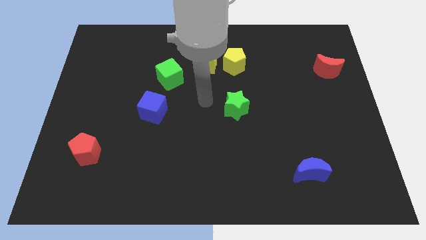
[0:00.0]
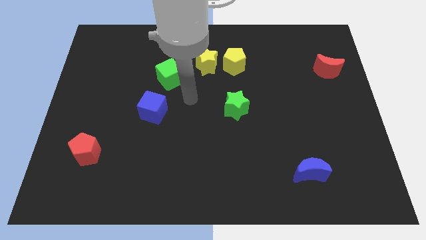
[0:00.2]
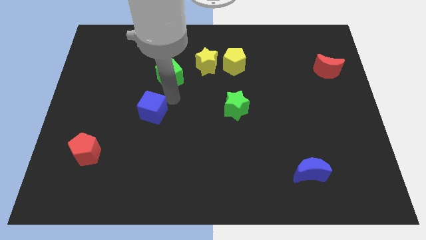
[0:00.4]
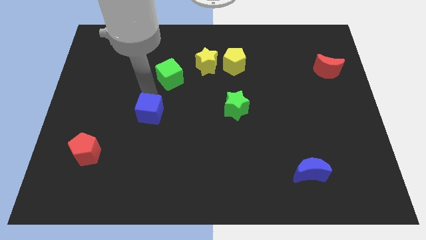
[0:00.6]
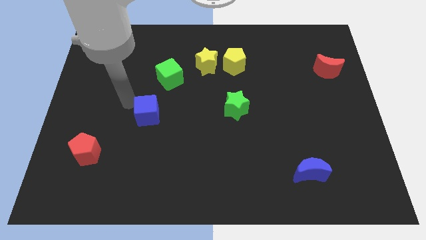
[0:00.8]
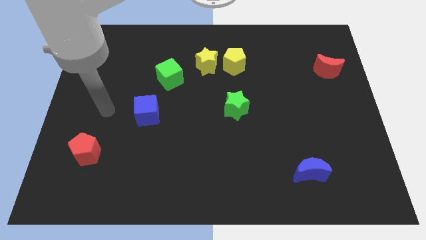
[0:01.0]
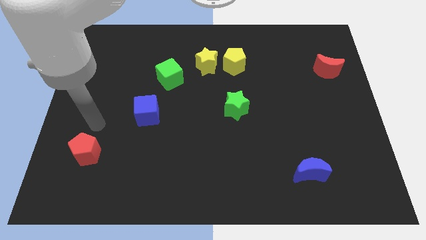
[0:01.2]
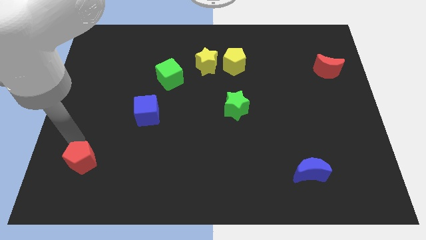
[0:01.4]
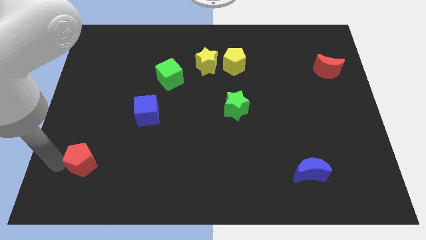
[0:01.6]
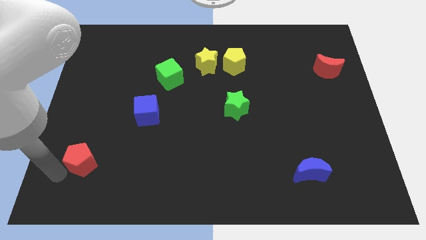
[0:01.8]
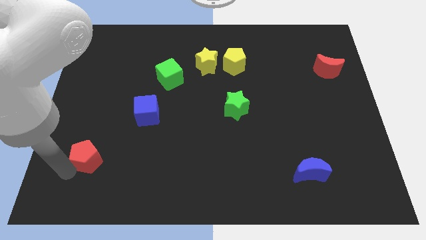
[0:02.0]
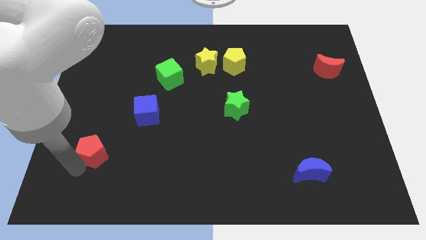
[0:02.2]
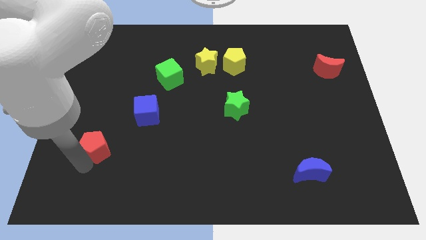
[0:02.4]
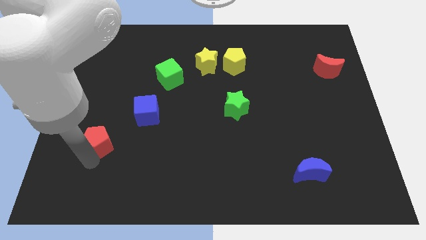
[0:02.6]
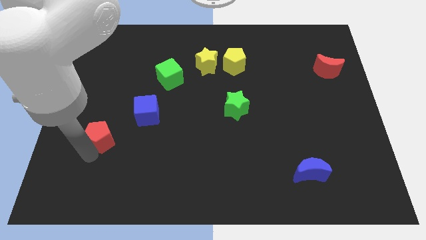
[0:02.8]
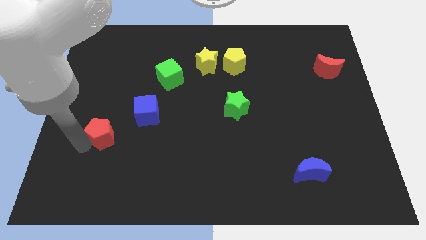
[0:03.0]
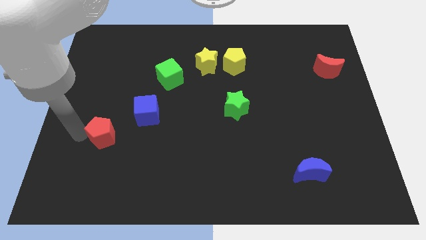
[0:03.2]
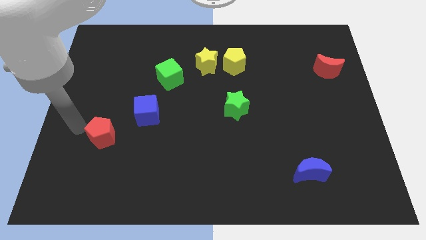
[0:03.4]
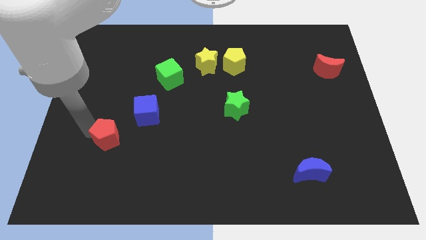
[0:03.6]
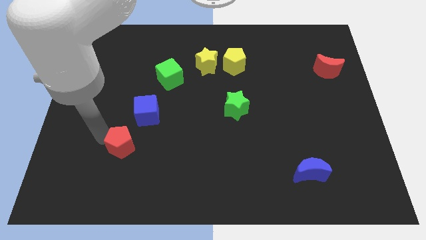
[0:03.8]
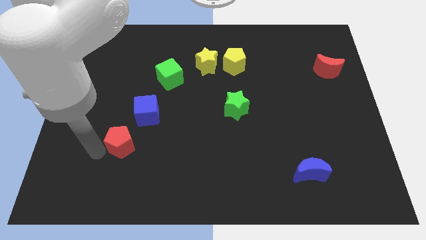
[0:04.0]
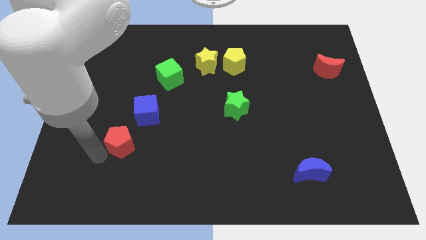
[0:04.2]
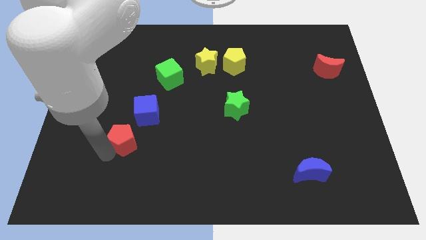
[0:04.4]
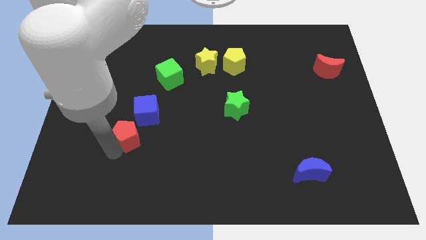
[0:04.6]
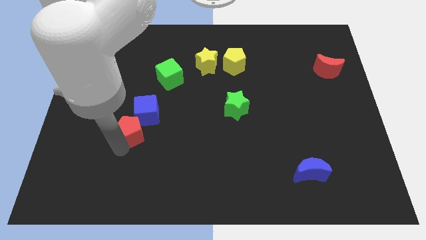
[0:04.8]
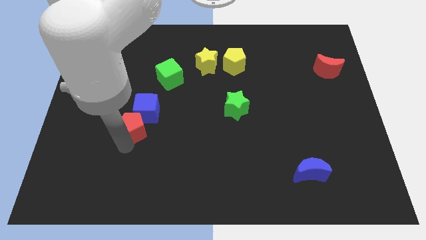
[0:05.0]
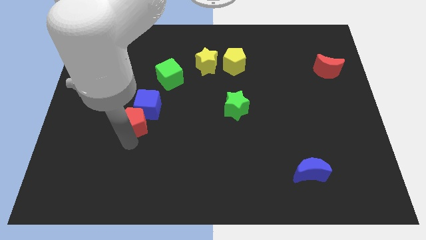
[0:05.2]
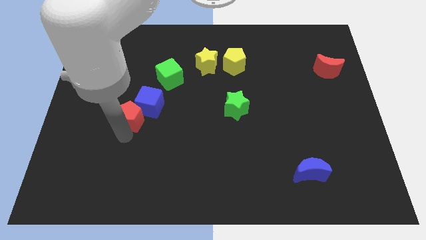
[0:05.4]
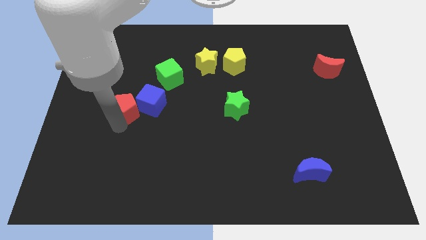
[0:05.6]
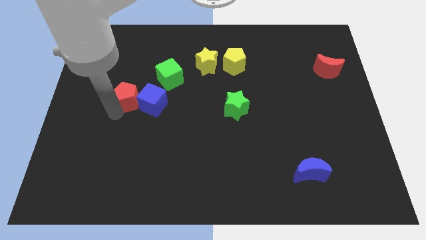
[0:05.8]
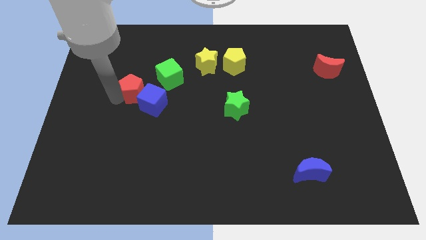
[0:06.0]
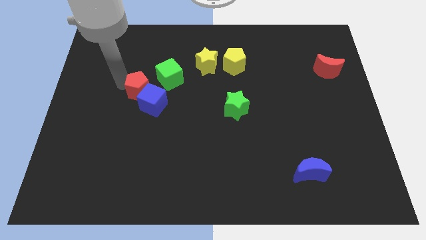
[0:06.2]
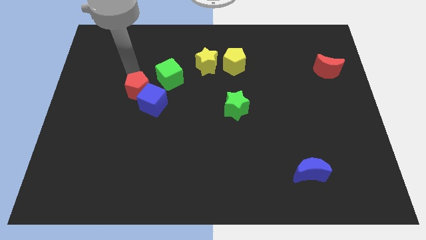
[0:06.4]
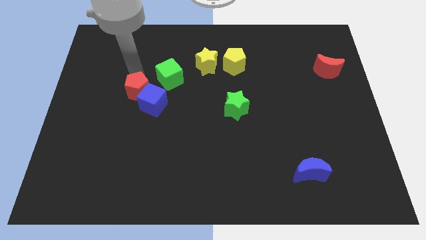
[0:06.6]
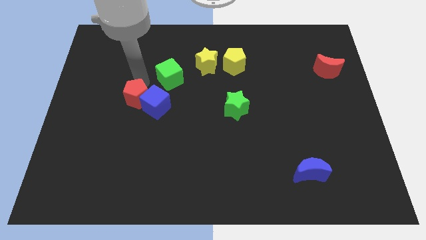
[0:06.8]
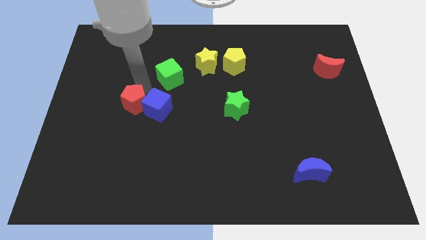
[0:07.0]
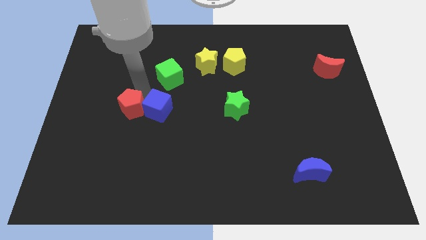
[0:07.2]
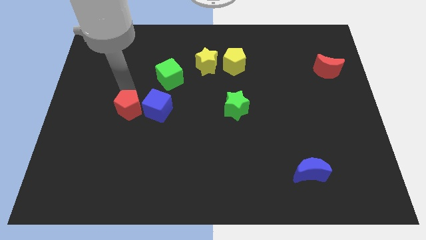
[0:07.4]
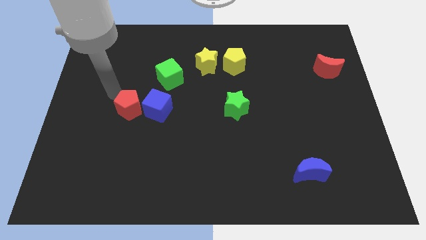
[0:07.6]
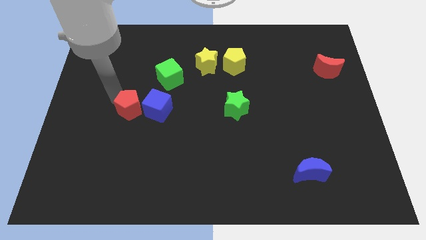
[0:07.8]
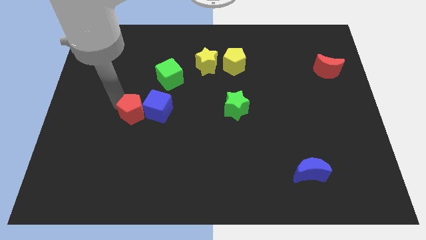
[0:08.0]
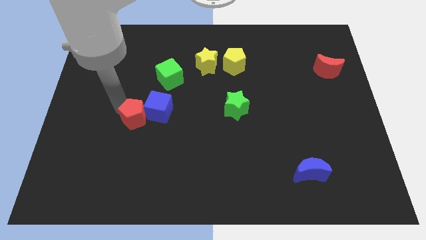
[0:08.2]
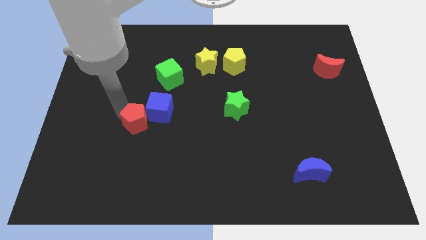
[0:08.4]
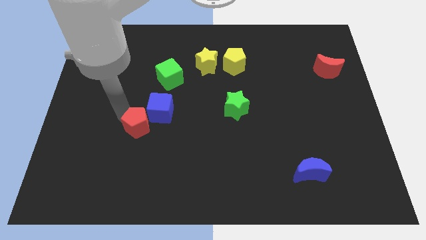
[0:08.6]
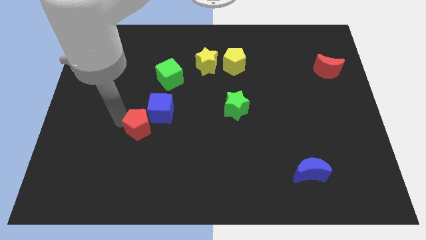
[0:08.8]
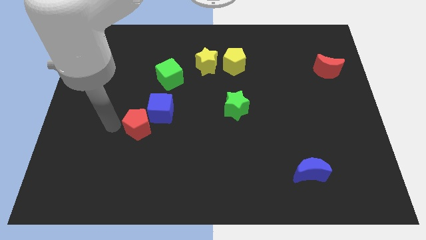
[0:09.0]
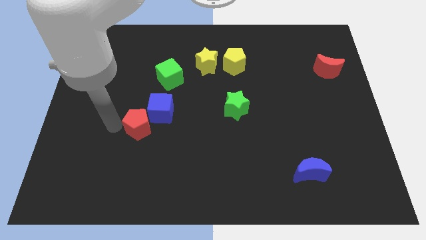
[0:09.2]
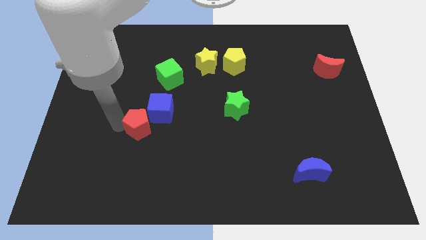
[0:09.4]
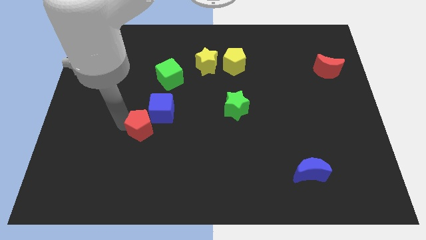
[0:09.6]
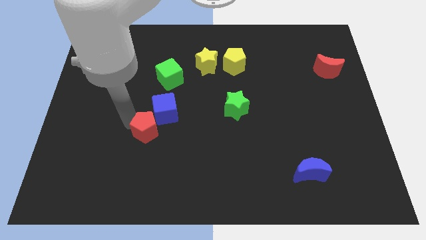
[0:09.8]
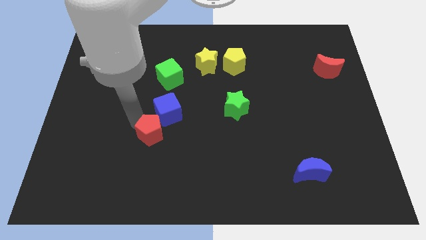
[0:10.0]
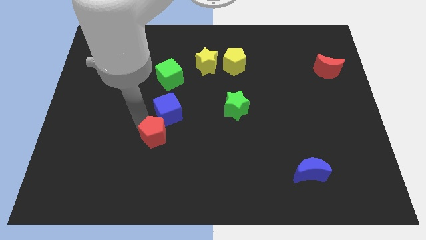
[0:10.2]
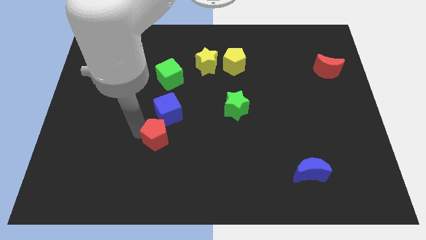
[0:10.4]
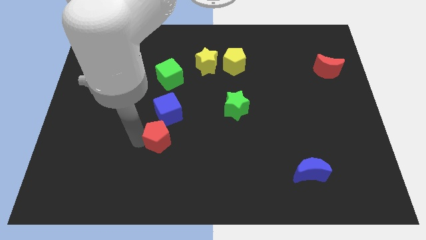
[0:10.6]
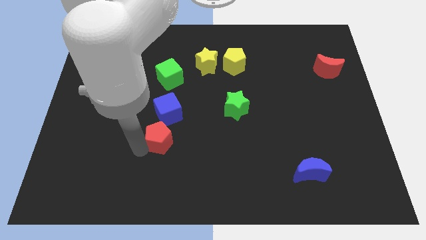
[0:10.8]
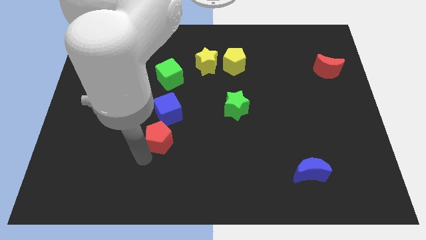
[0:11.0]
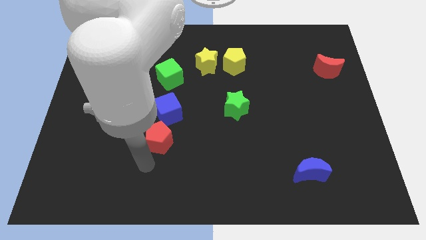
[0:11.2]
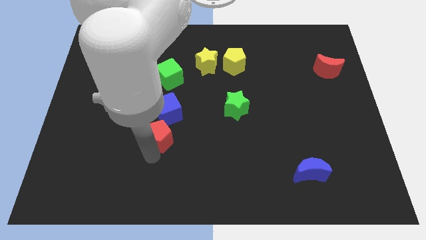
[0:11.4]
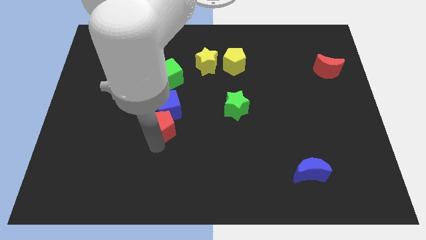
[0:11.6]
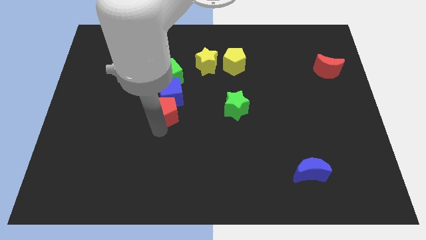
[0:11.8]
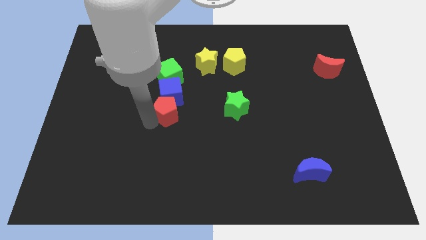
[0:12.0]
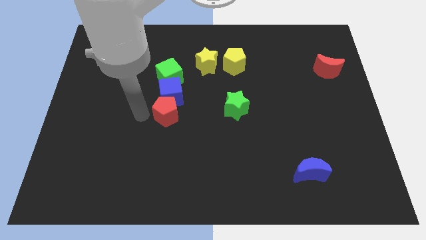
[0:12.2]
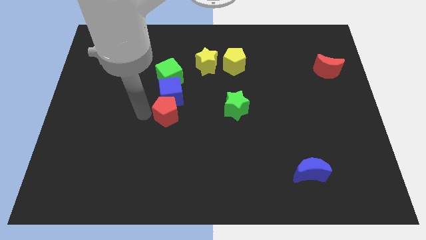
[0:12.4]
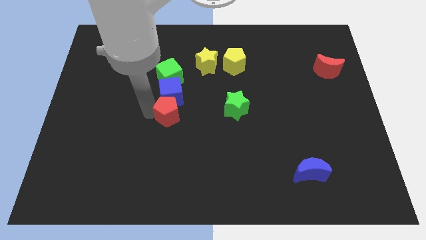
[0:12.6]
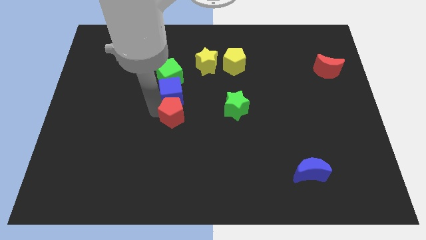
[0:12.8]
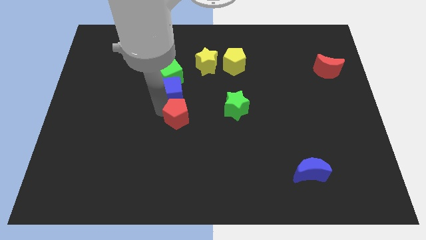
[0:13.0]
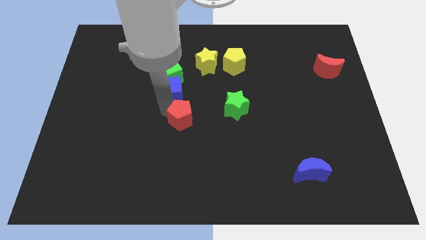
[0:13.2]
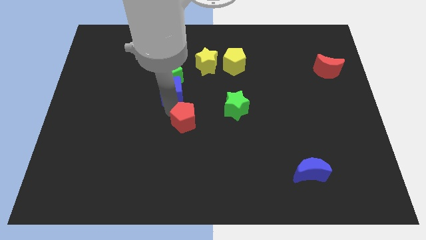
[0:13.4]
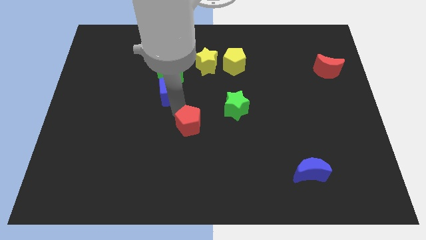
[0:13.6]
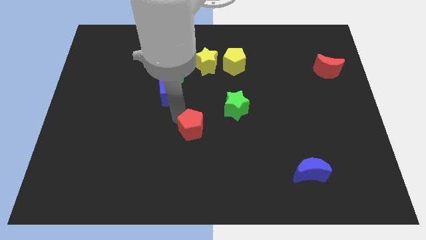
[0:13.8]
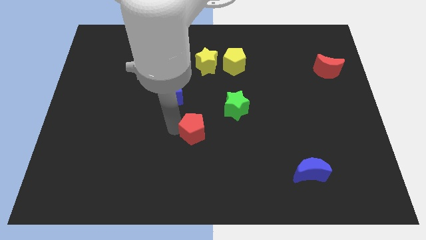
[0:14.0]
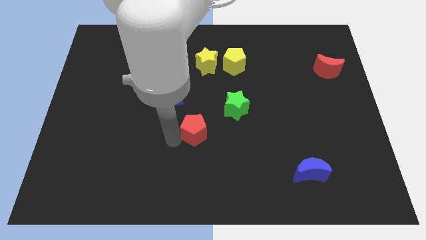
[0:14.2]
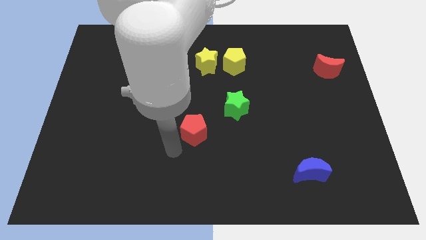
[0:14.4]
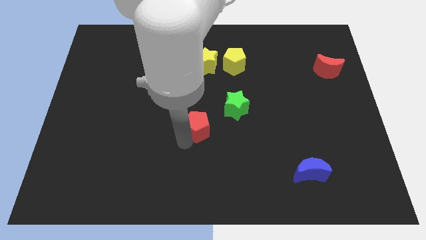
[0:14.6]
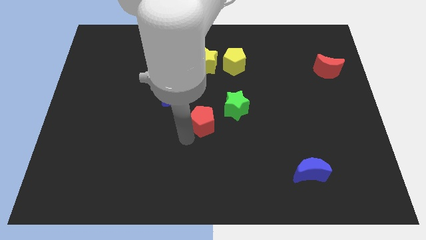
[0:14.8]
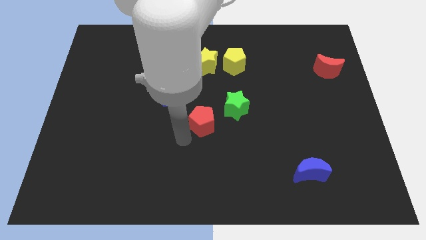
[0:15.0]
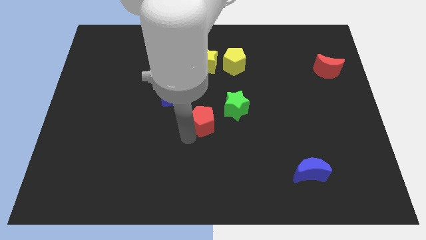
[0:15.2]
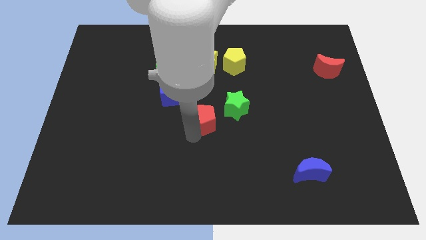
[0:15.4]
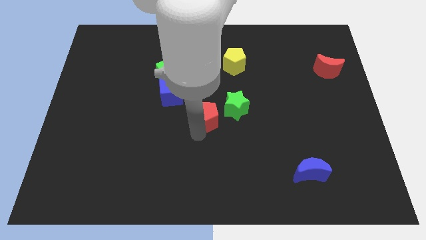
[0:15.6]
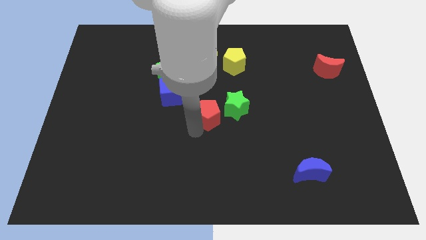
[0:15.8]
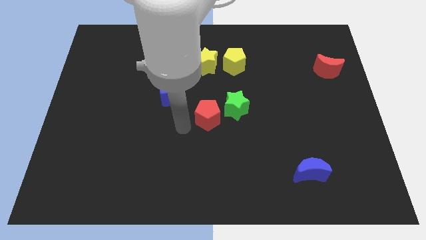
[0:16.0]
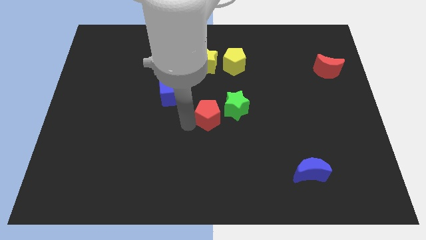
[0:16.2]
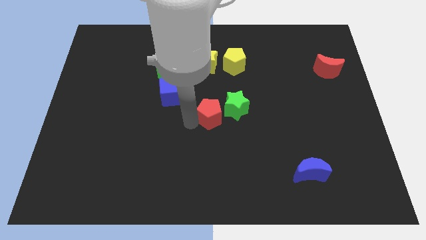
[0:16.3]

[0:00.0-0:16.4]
move the red pentagon towards the green star
